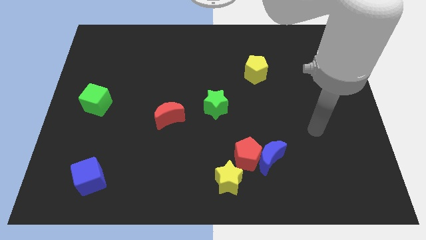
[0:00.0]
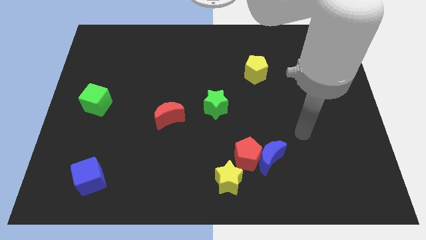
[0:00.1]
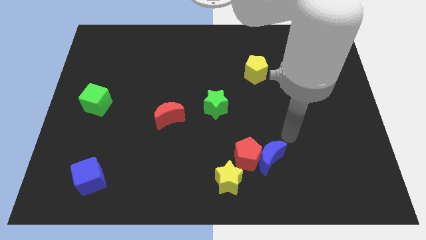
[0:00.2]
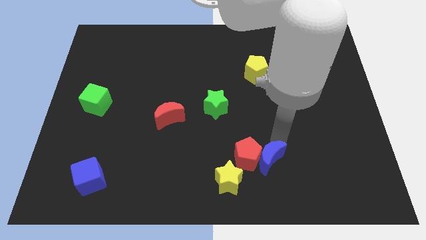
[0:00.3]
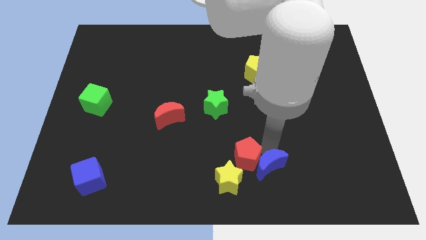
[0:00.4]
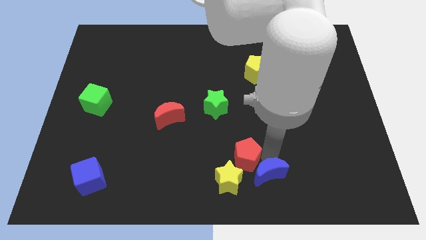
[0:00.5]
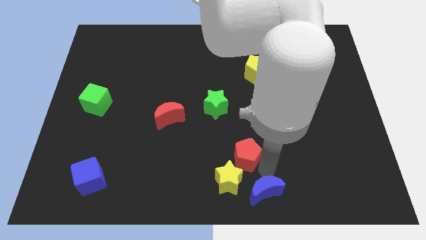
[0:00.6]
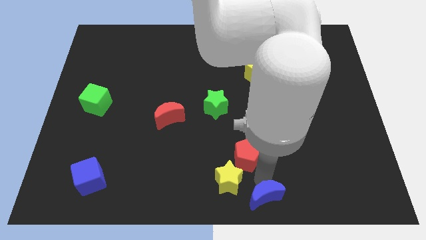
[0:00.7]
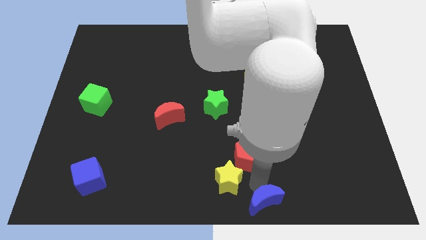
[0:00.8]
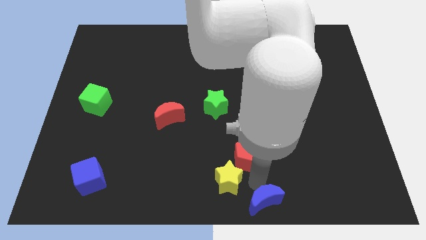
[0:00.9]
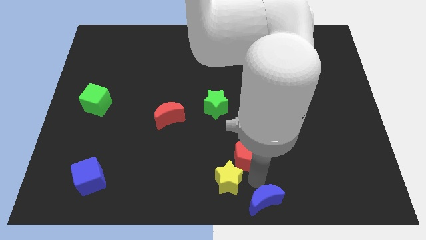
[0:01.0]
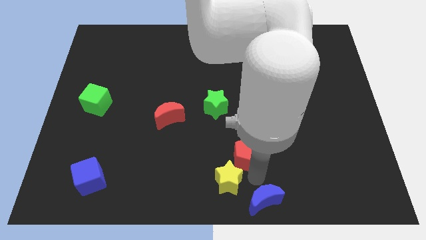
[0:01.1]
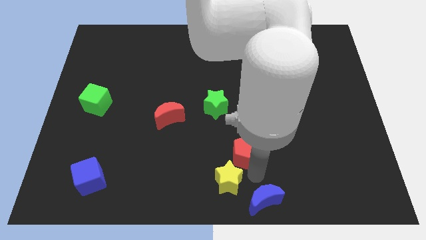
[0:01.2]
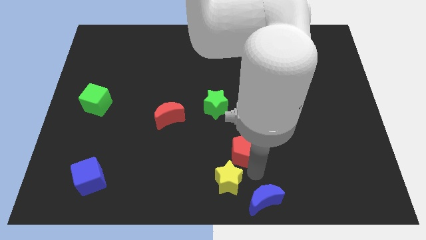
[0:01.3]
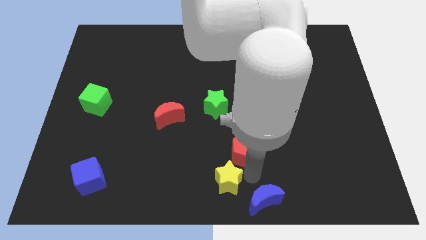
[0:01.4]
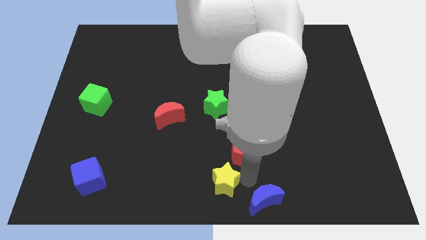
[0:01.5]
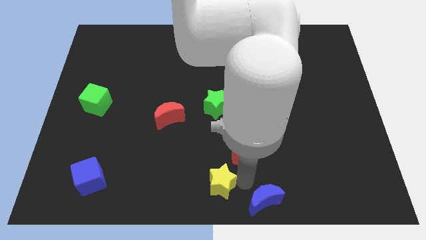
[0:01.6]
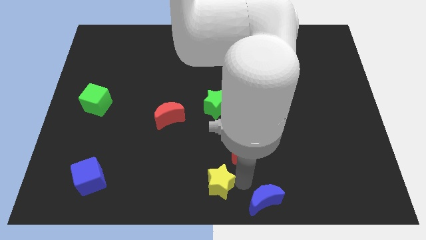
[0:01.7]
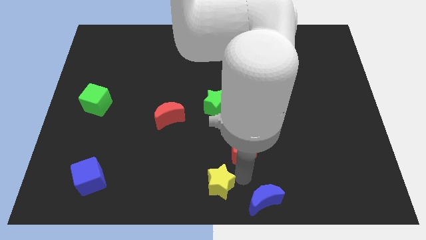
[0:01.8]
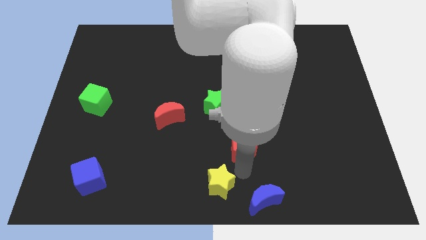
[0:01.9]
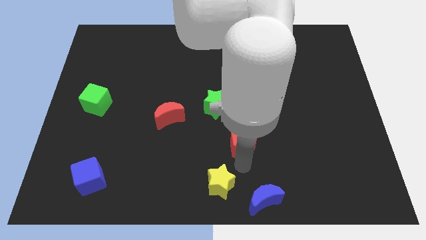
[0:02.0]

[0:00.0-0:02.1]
separate the red pentagon from the blue moon and yellow star

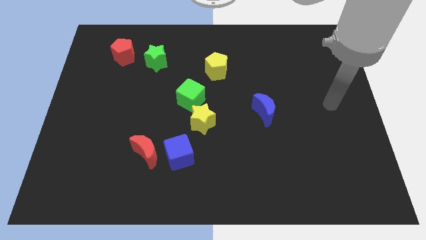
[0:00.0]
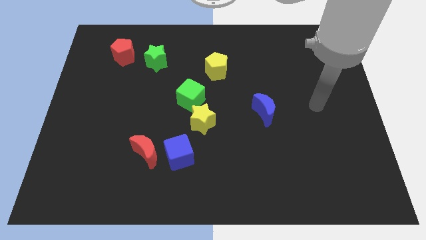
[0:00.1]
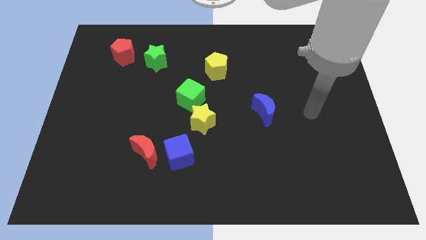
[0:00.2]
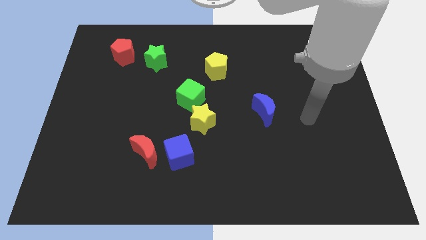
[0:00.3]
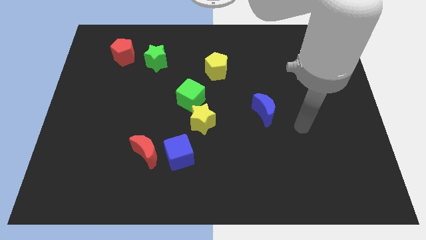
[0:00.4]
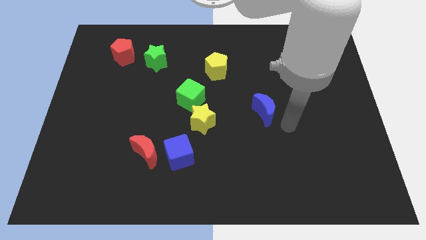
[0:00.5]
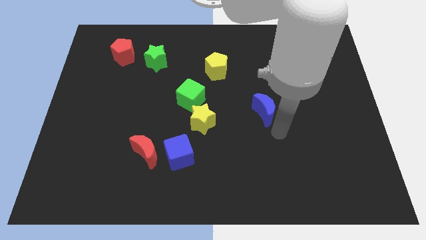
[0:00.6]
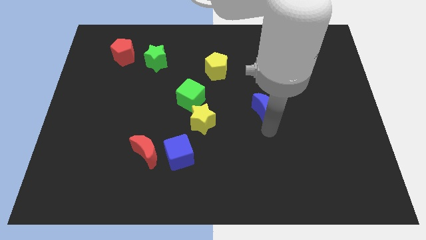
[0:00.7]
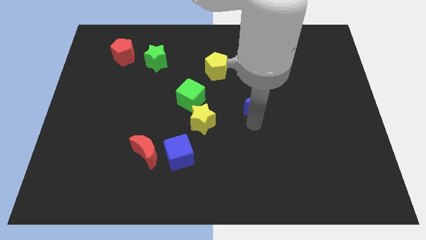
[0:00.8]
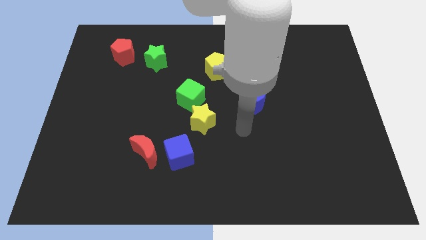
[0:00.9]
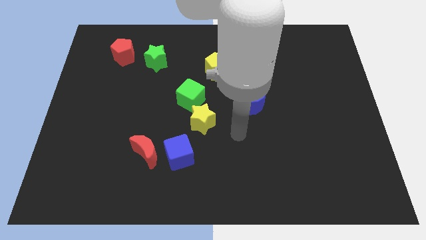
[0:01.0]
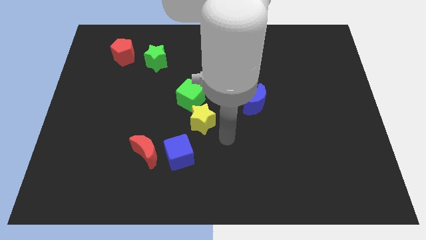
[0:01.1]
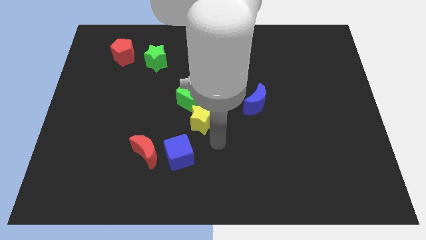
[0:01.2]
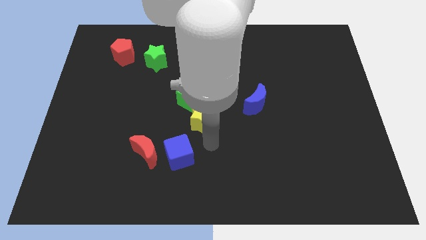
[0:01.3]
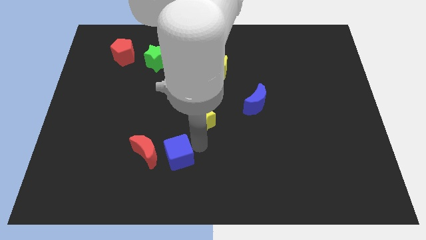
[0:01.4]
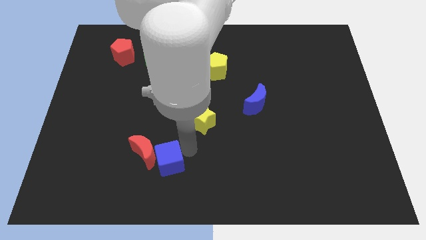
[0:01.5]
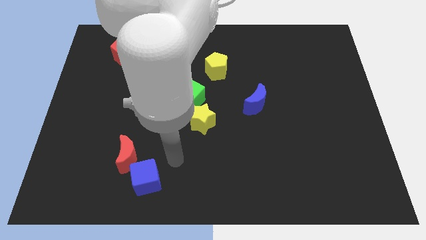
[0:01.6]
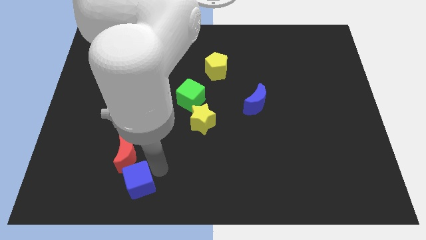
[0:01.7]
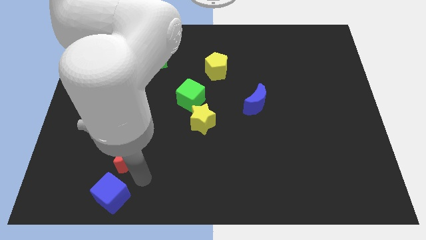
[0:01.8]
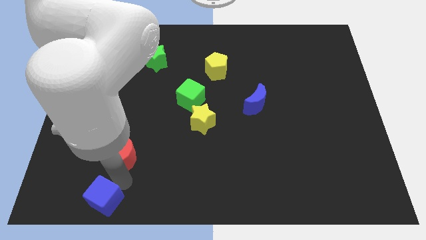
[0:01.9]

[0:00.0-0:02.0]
move the red moon away from the blue cube

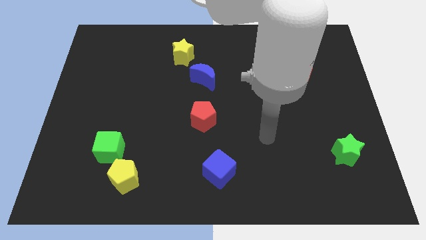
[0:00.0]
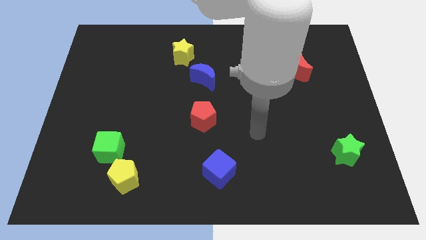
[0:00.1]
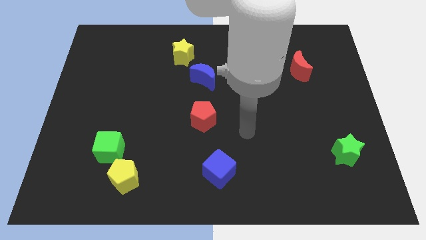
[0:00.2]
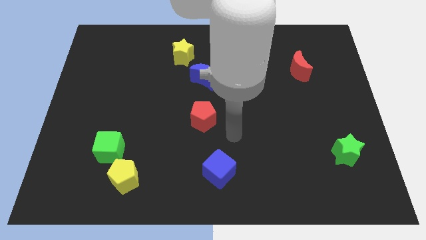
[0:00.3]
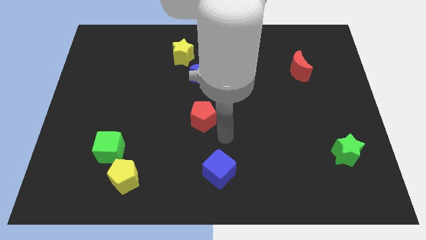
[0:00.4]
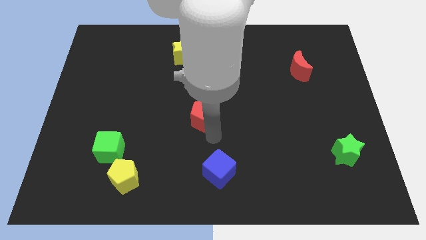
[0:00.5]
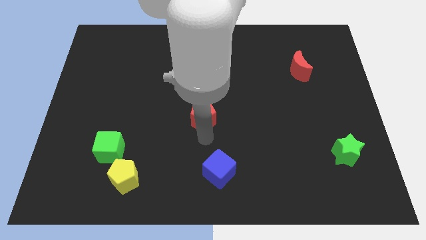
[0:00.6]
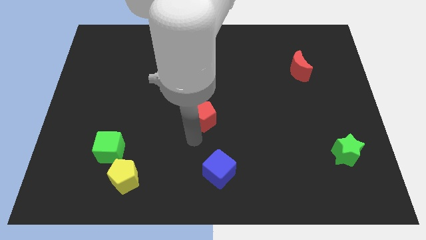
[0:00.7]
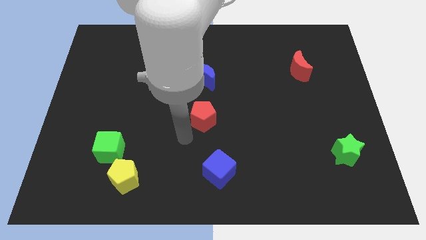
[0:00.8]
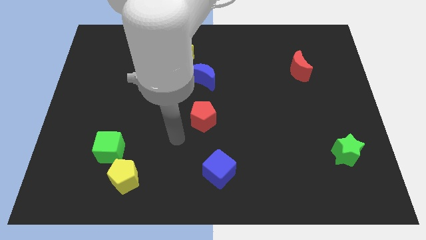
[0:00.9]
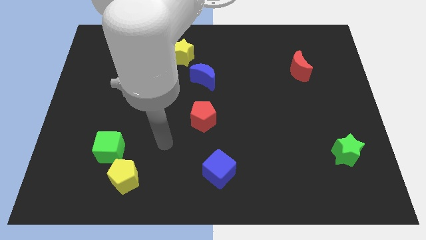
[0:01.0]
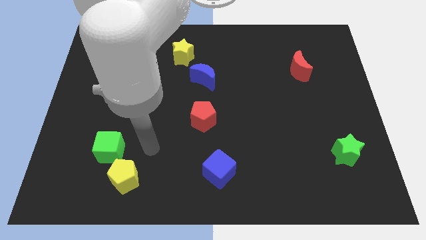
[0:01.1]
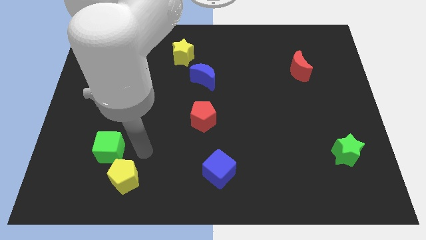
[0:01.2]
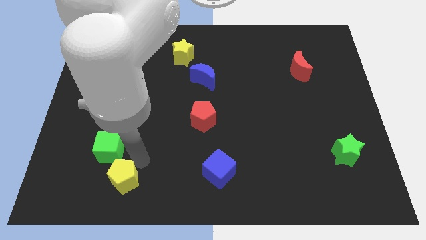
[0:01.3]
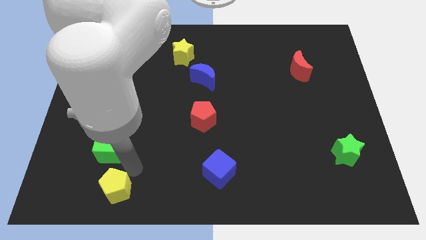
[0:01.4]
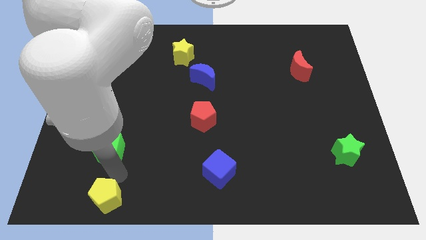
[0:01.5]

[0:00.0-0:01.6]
pull the green cube apart from the yellow pentagon

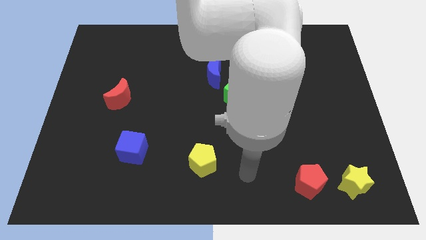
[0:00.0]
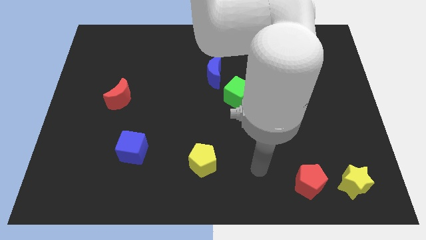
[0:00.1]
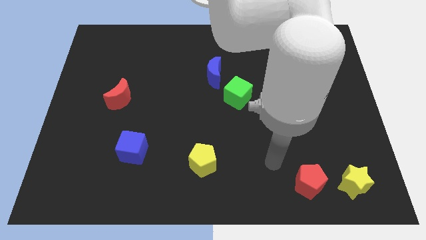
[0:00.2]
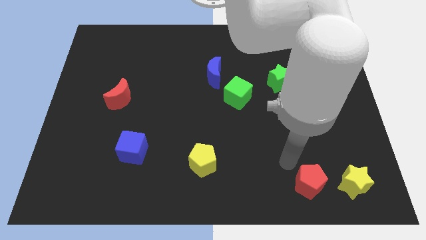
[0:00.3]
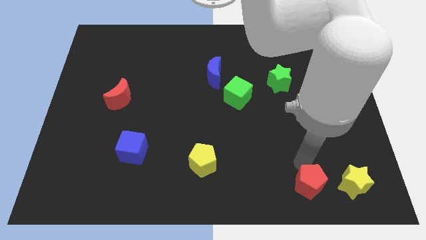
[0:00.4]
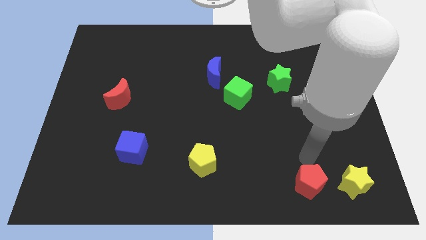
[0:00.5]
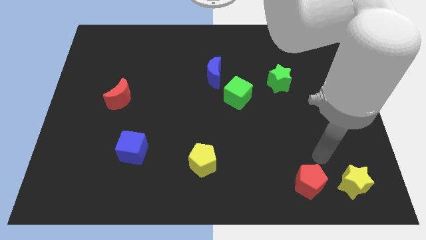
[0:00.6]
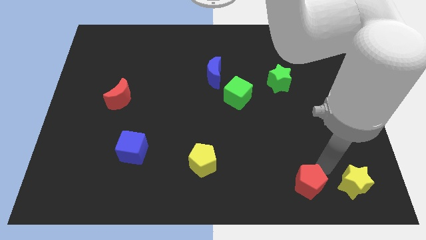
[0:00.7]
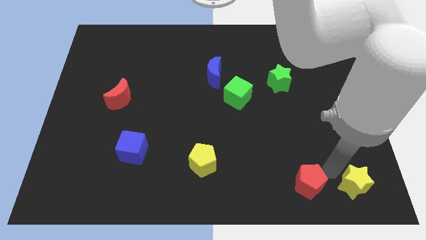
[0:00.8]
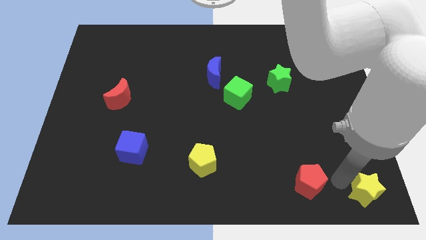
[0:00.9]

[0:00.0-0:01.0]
separate the red pentagon from the yellow star

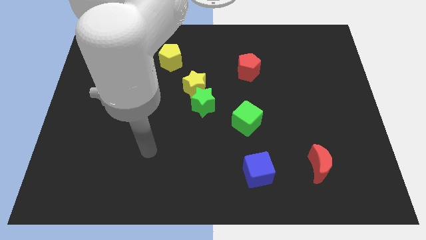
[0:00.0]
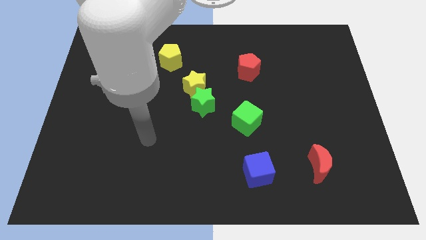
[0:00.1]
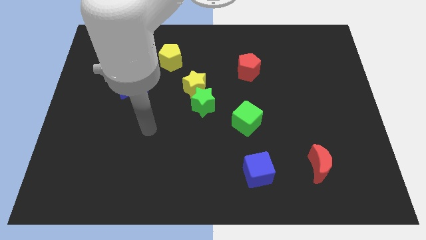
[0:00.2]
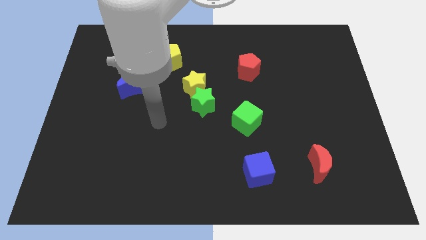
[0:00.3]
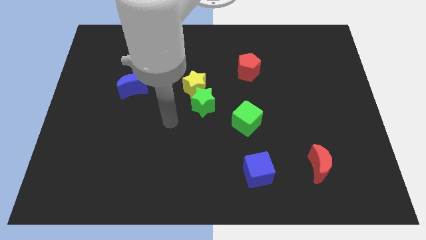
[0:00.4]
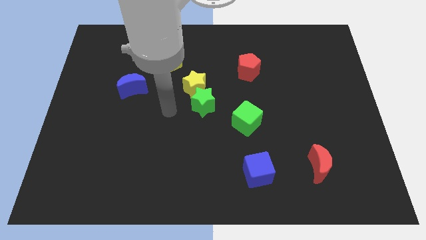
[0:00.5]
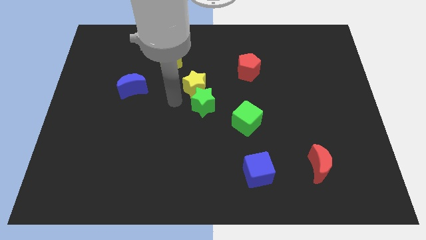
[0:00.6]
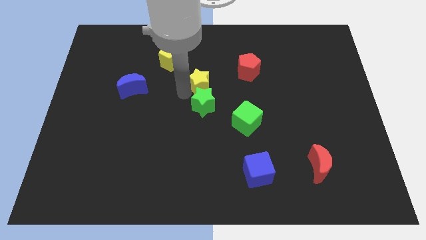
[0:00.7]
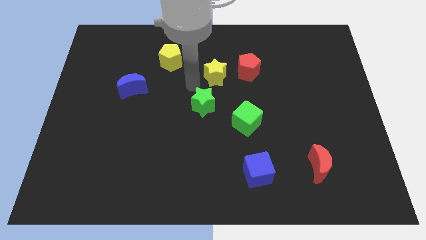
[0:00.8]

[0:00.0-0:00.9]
pull the green star apart from the yellow star

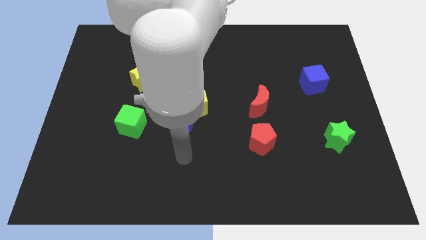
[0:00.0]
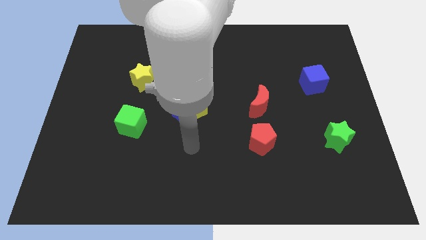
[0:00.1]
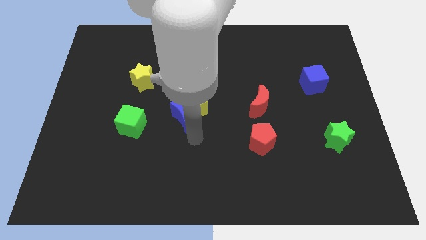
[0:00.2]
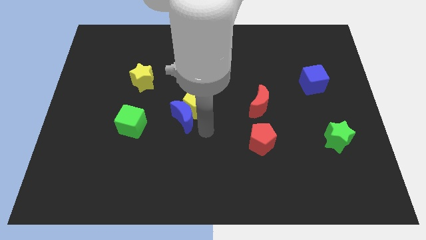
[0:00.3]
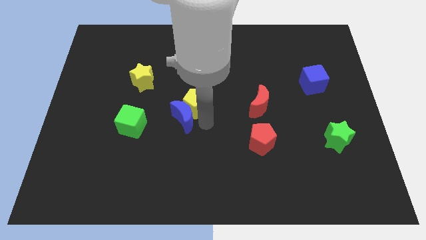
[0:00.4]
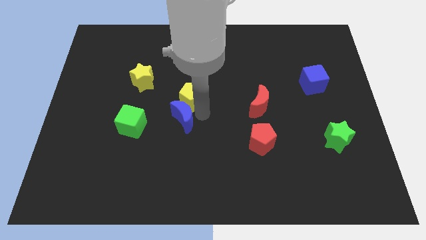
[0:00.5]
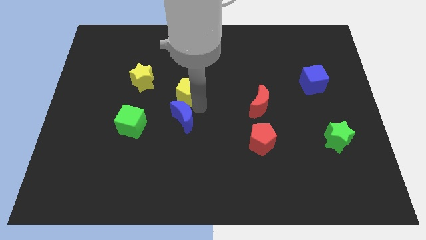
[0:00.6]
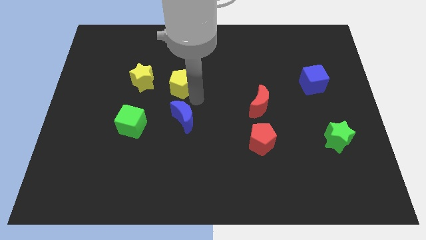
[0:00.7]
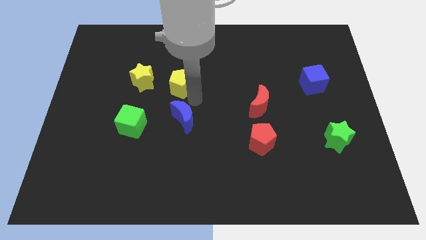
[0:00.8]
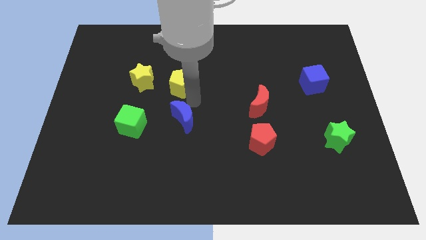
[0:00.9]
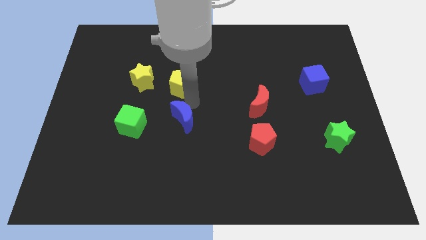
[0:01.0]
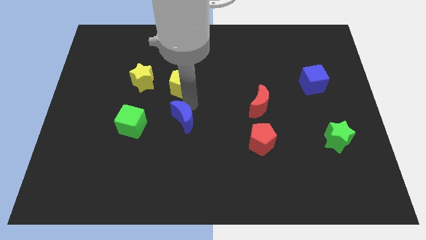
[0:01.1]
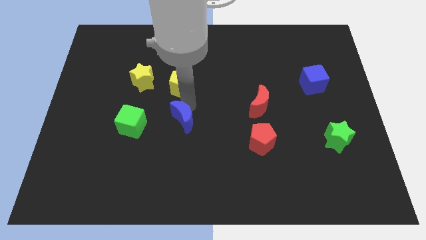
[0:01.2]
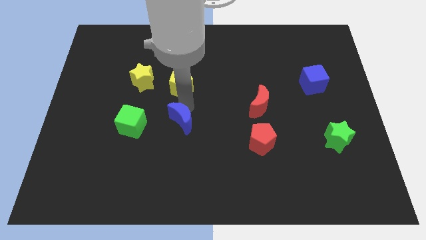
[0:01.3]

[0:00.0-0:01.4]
move the blue moon away from the yellow pentagon

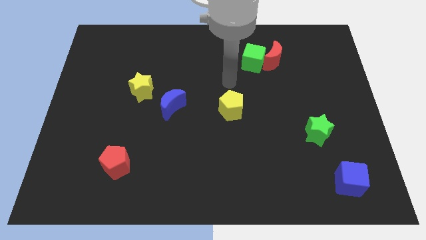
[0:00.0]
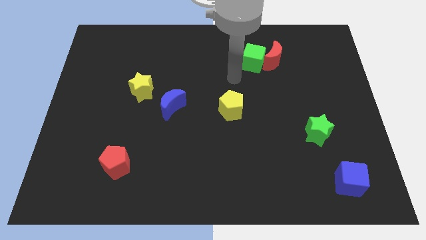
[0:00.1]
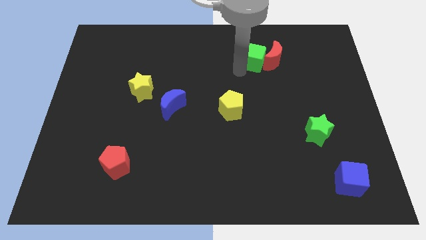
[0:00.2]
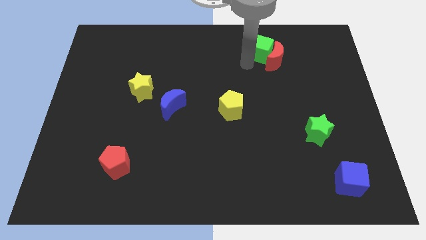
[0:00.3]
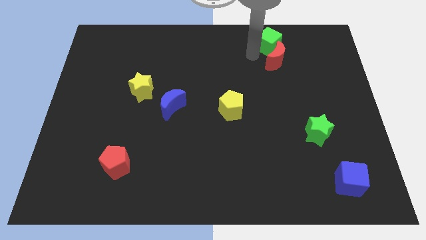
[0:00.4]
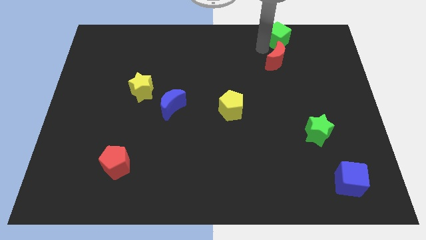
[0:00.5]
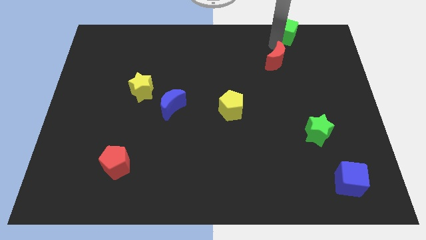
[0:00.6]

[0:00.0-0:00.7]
separate the red moon from the green cube
